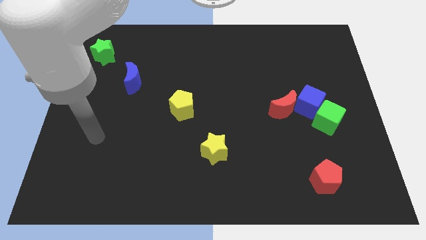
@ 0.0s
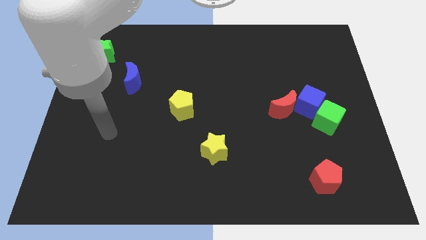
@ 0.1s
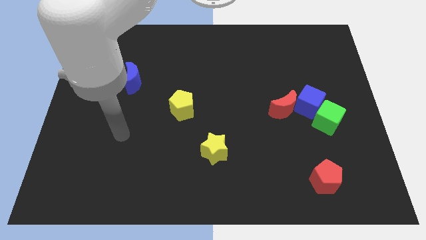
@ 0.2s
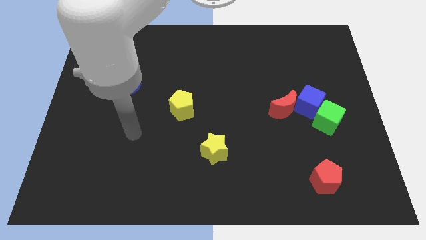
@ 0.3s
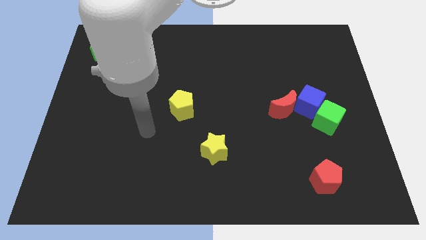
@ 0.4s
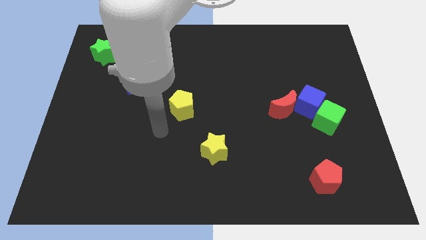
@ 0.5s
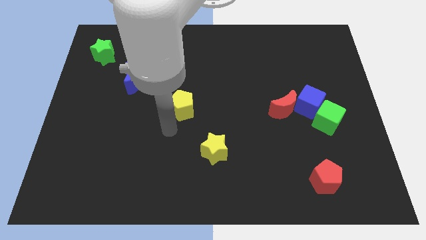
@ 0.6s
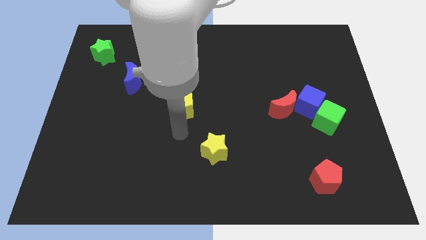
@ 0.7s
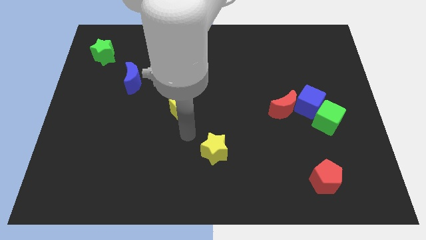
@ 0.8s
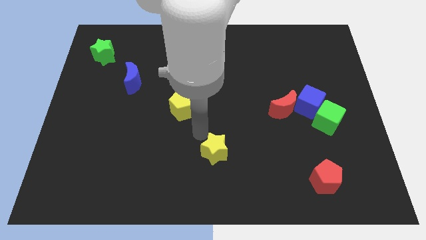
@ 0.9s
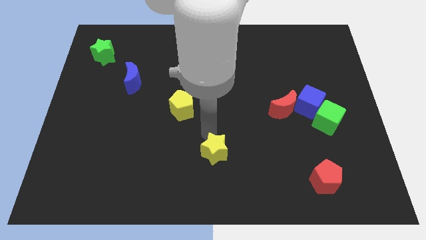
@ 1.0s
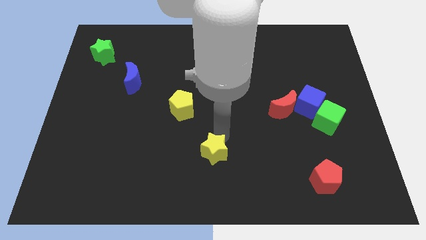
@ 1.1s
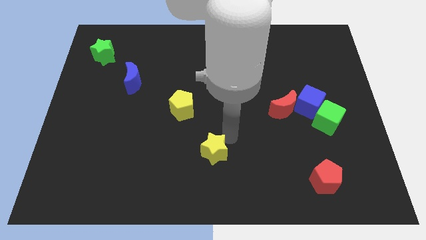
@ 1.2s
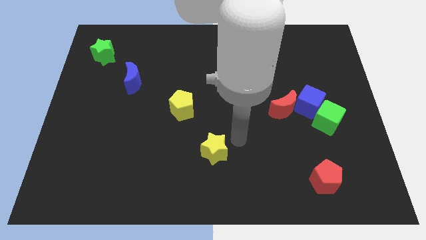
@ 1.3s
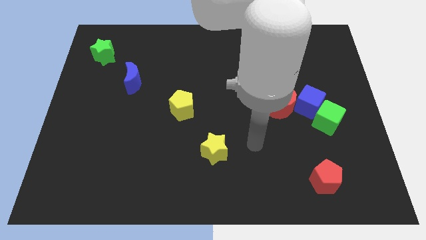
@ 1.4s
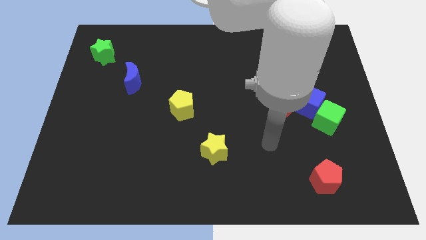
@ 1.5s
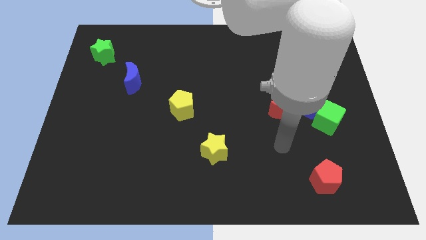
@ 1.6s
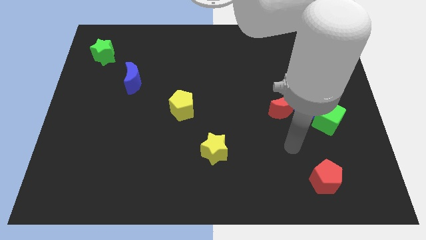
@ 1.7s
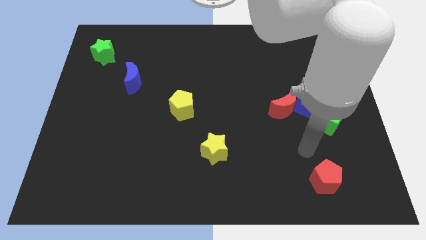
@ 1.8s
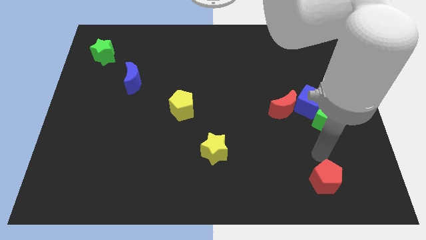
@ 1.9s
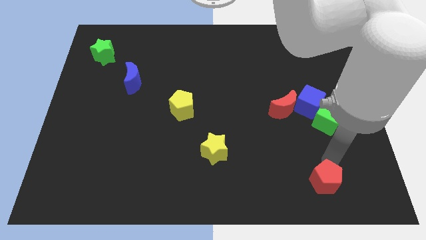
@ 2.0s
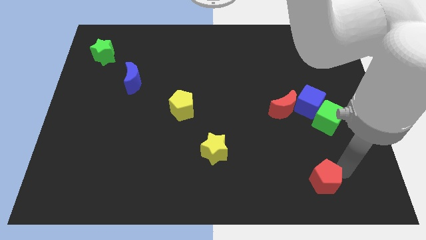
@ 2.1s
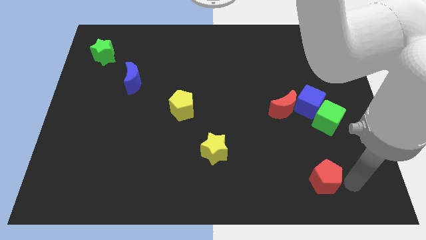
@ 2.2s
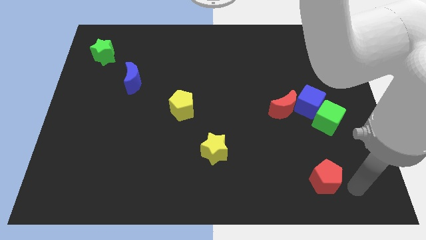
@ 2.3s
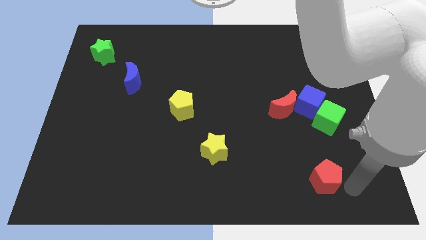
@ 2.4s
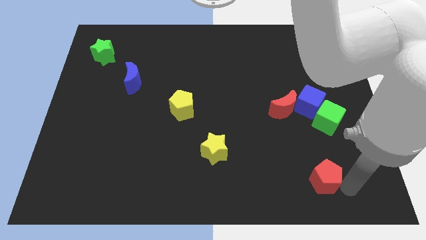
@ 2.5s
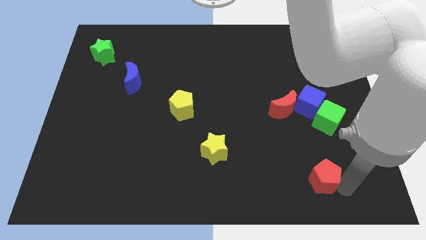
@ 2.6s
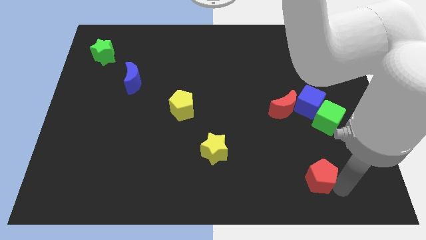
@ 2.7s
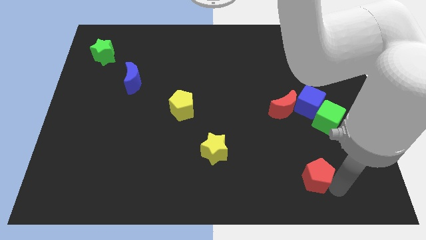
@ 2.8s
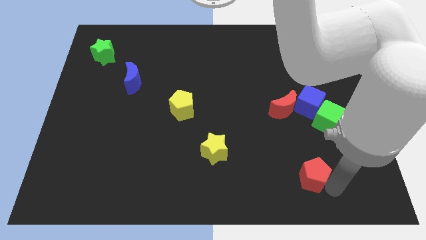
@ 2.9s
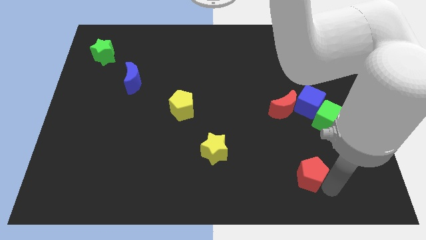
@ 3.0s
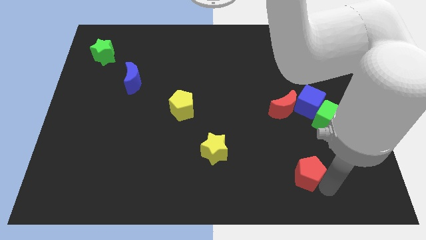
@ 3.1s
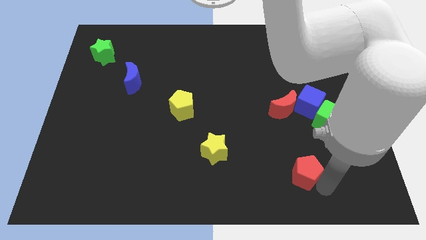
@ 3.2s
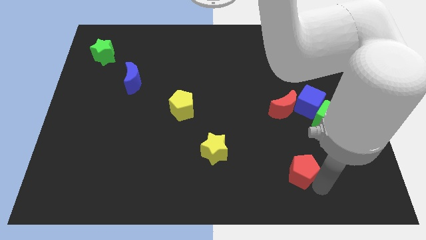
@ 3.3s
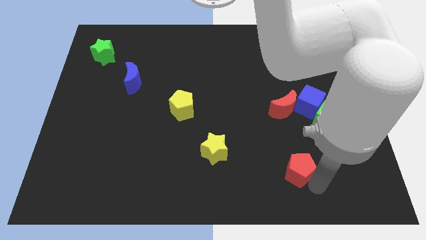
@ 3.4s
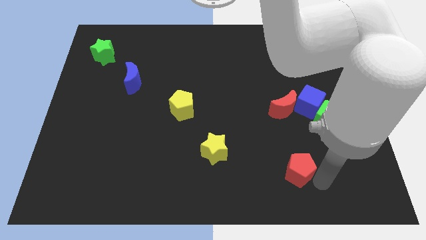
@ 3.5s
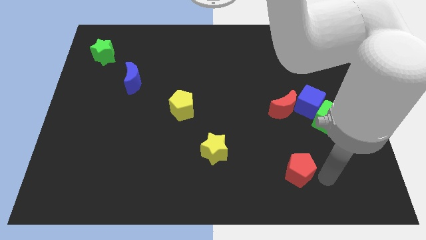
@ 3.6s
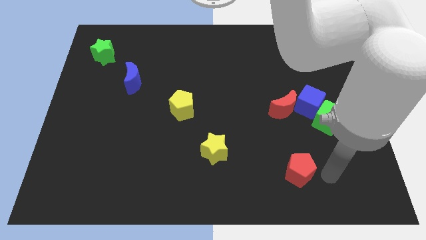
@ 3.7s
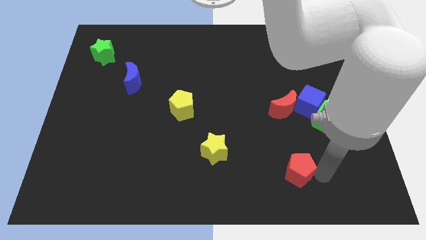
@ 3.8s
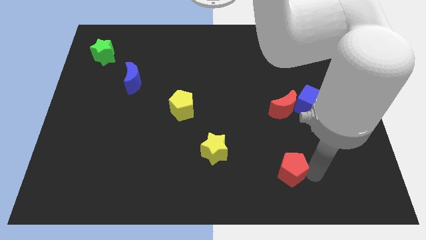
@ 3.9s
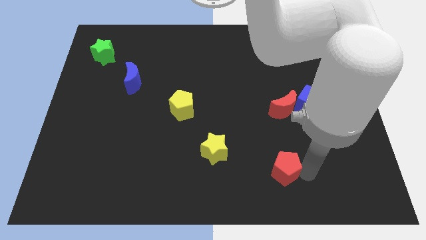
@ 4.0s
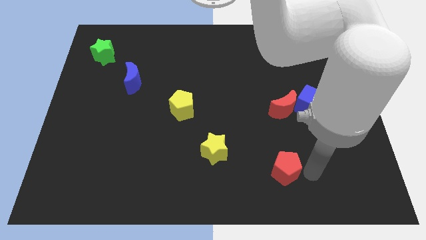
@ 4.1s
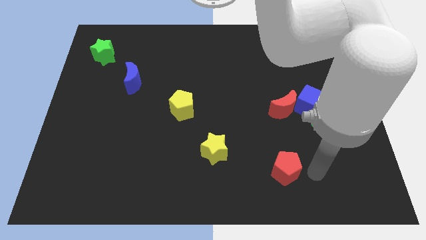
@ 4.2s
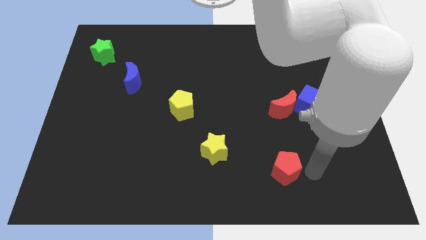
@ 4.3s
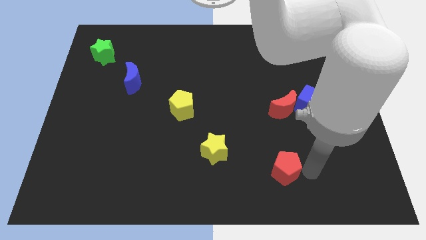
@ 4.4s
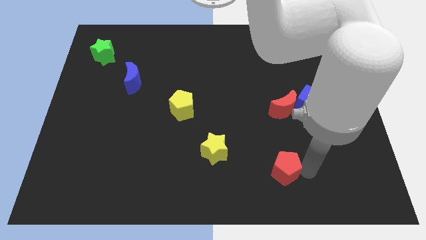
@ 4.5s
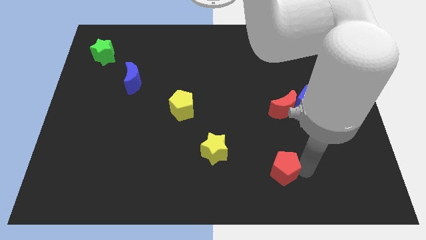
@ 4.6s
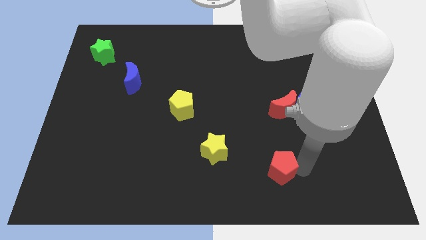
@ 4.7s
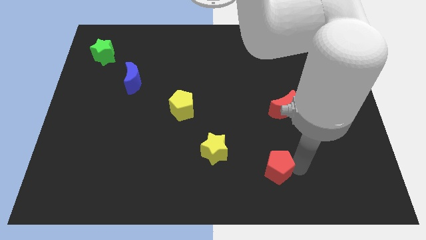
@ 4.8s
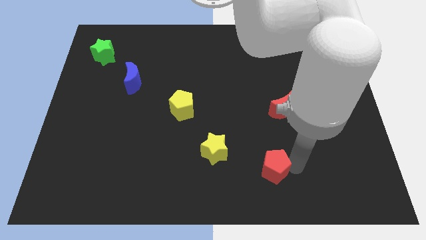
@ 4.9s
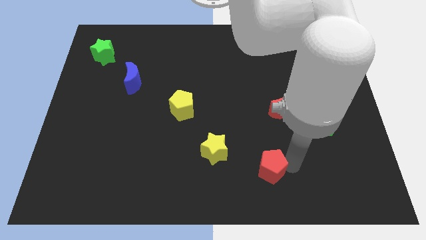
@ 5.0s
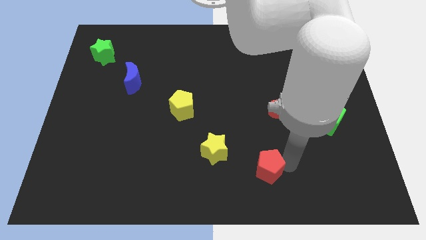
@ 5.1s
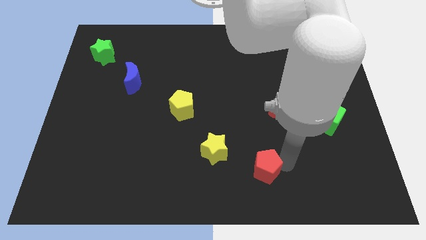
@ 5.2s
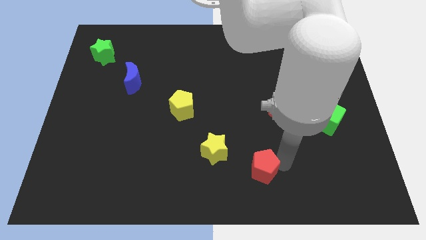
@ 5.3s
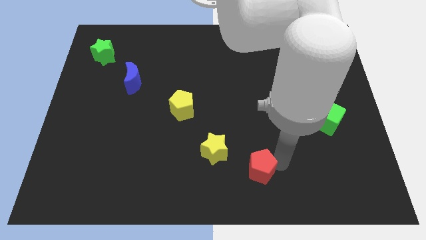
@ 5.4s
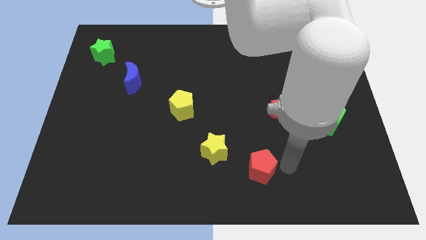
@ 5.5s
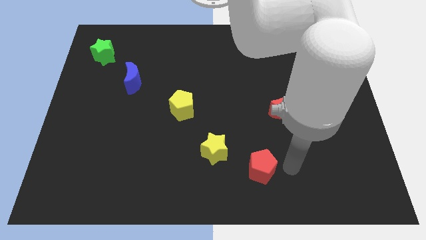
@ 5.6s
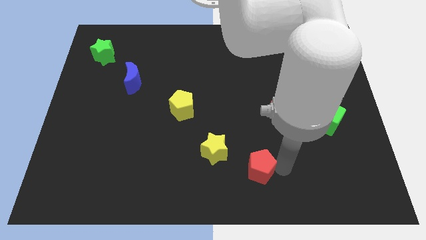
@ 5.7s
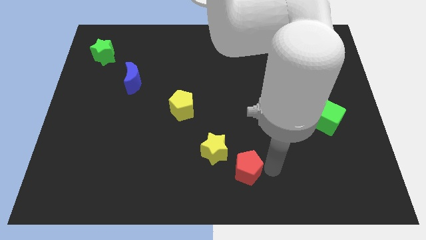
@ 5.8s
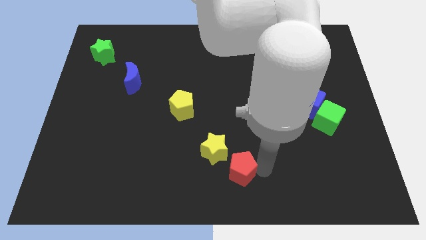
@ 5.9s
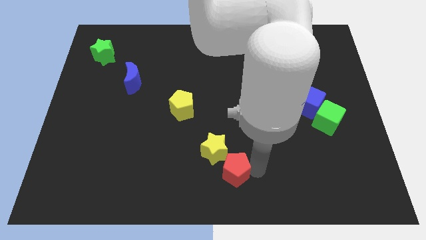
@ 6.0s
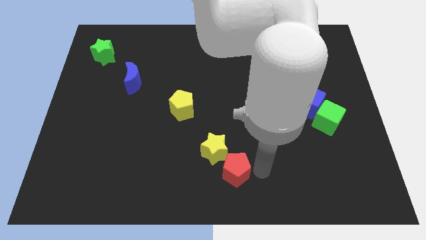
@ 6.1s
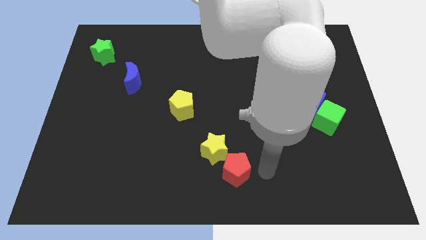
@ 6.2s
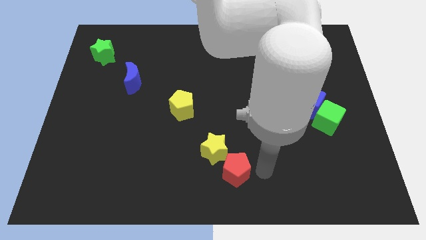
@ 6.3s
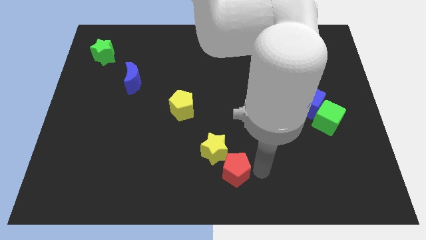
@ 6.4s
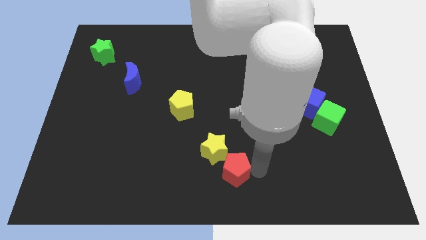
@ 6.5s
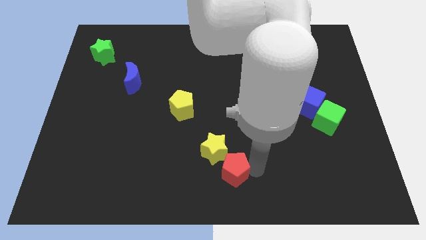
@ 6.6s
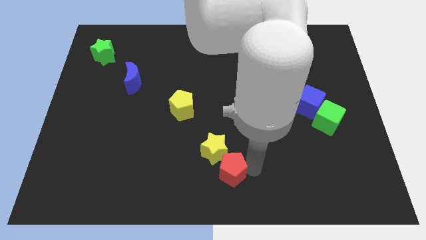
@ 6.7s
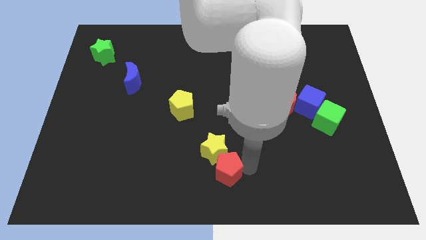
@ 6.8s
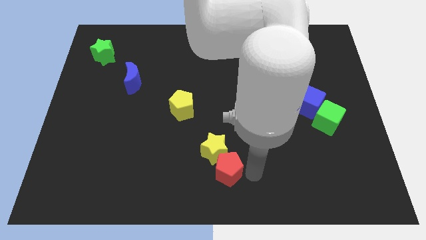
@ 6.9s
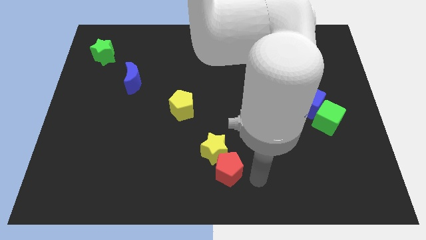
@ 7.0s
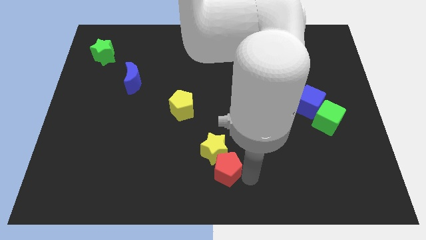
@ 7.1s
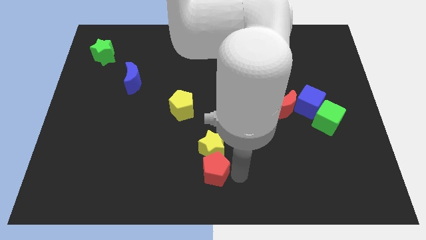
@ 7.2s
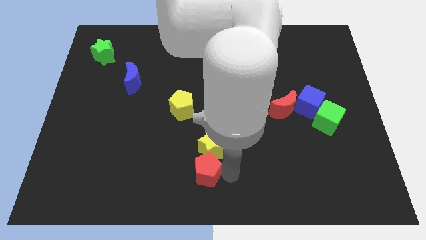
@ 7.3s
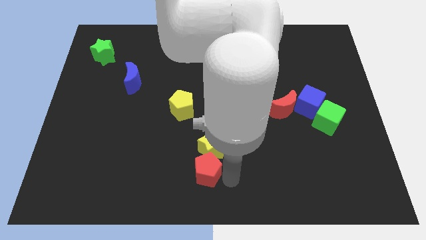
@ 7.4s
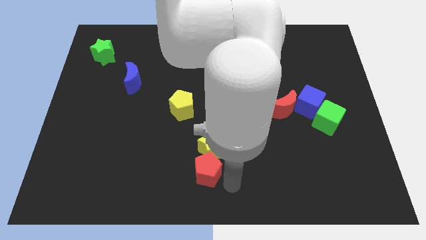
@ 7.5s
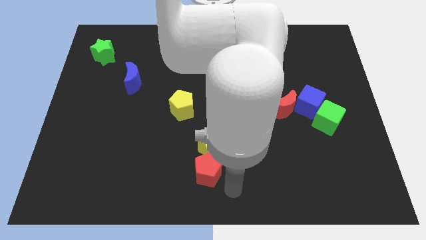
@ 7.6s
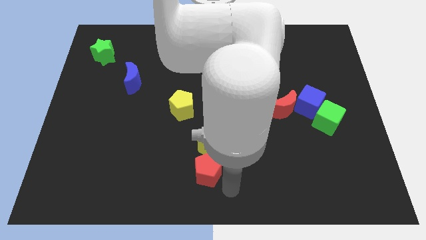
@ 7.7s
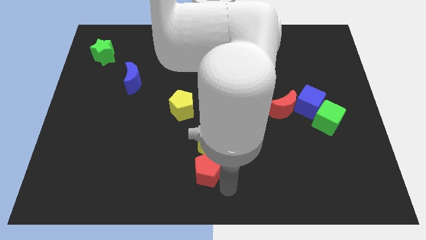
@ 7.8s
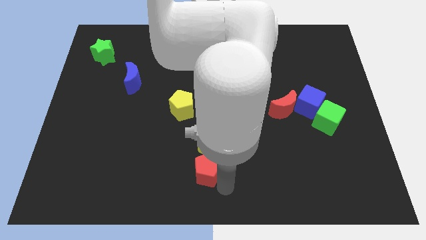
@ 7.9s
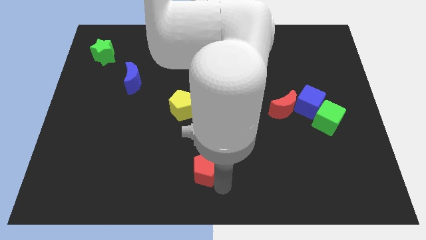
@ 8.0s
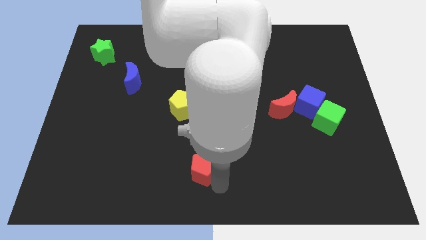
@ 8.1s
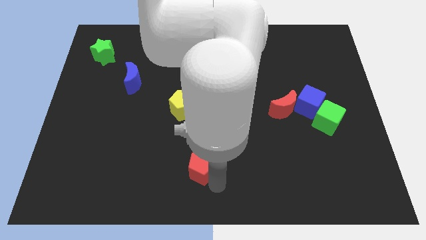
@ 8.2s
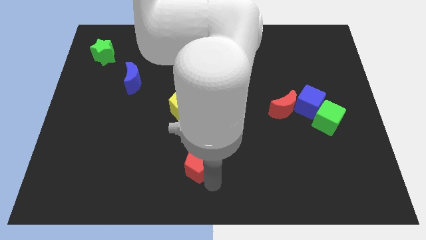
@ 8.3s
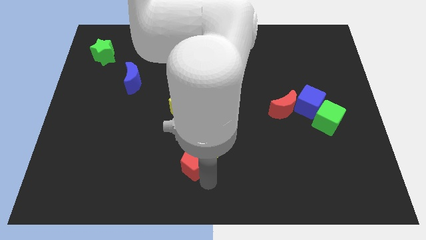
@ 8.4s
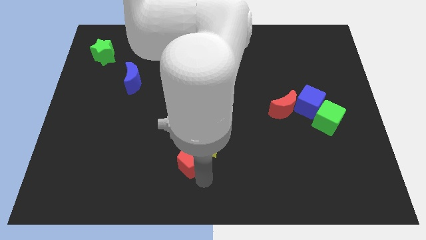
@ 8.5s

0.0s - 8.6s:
move the red pentagon left of the yellow star
